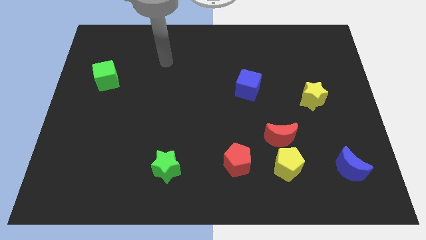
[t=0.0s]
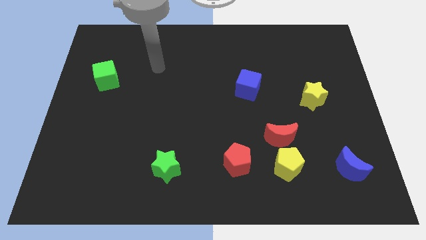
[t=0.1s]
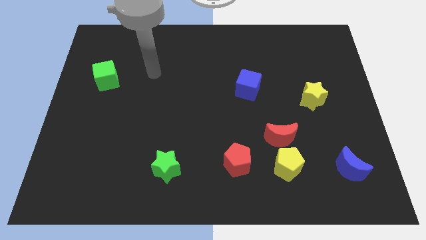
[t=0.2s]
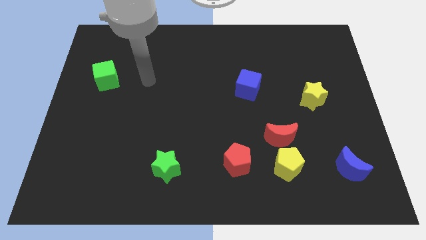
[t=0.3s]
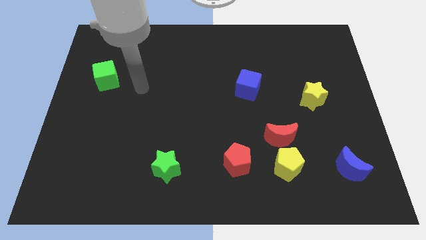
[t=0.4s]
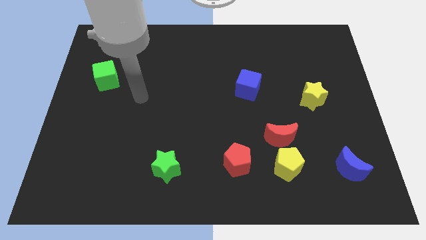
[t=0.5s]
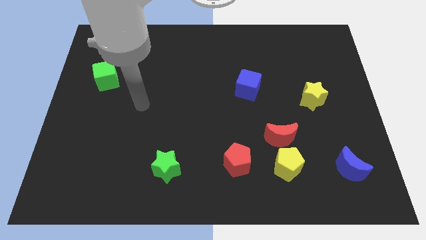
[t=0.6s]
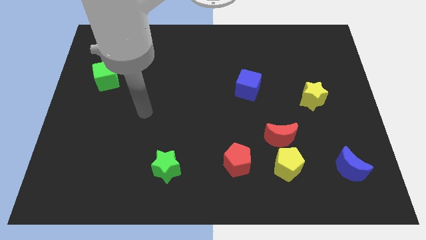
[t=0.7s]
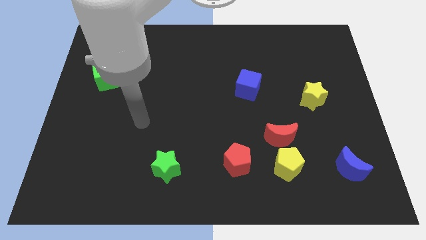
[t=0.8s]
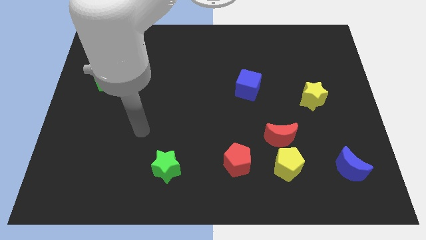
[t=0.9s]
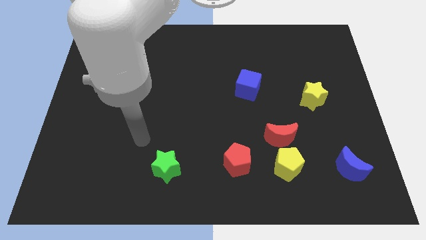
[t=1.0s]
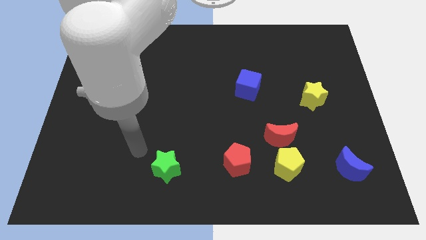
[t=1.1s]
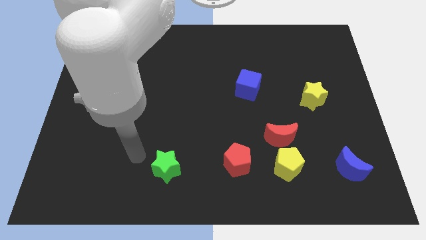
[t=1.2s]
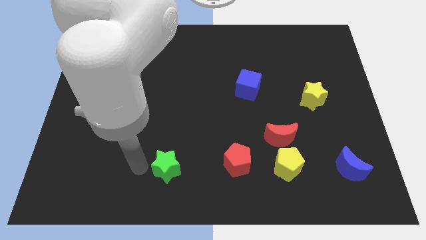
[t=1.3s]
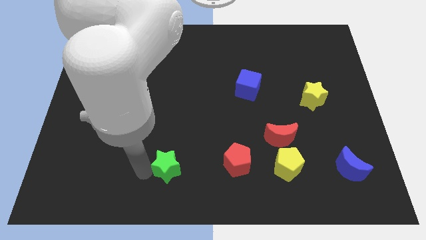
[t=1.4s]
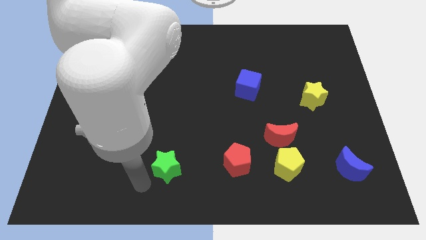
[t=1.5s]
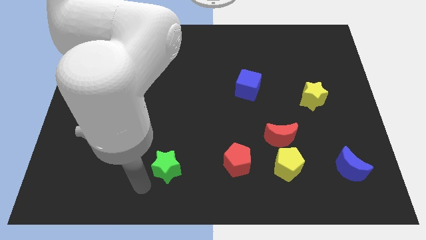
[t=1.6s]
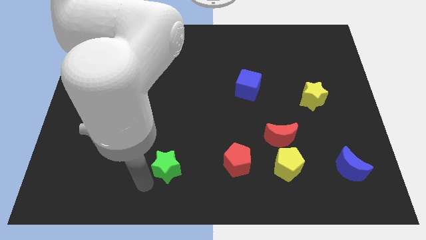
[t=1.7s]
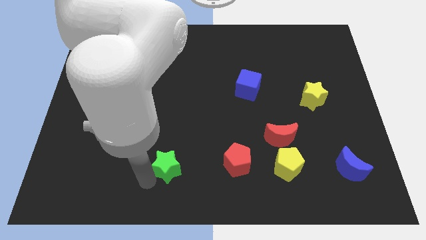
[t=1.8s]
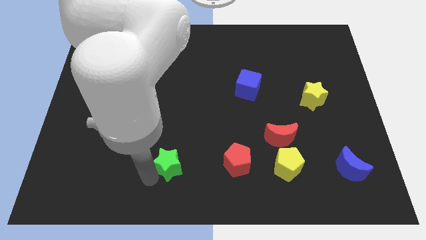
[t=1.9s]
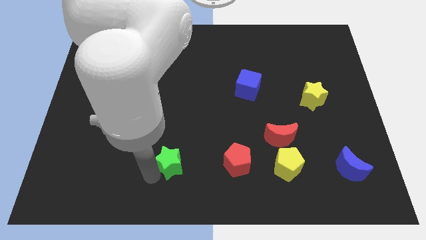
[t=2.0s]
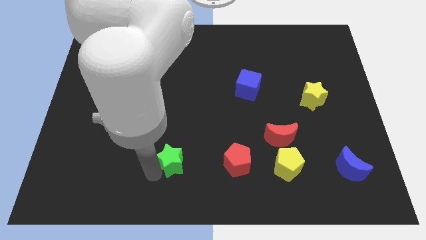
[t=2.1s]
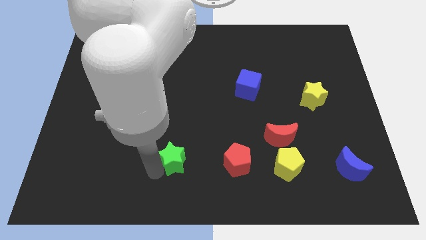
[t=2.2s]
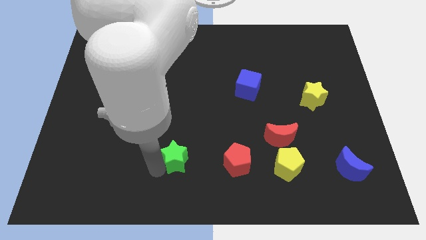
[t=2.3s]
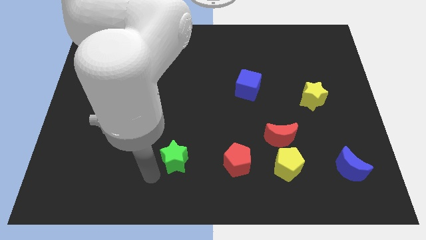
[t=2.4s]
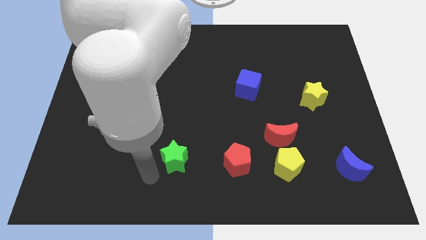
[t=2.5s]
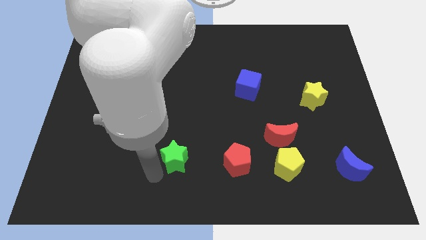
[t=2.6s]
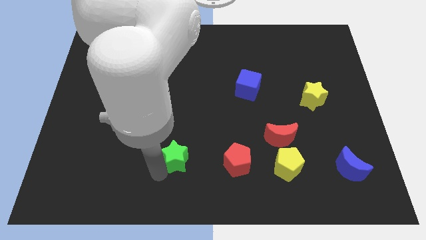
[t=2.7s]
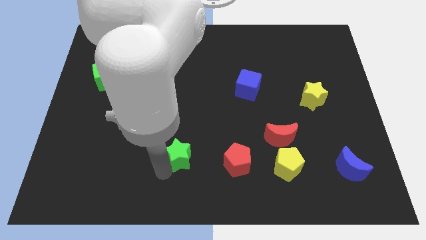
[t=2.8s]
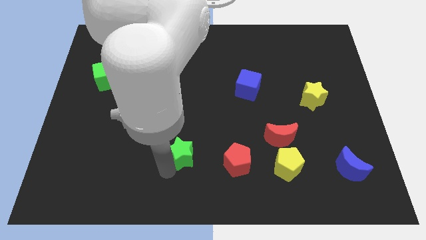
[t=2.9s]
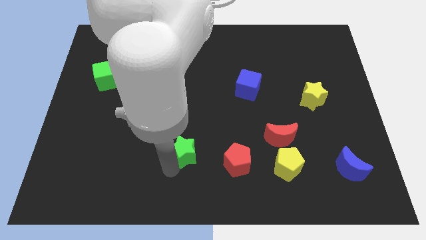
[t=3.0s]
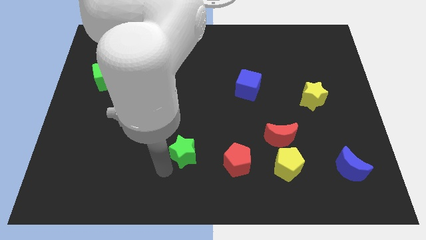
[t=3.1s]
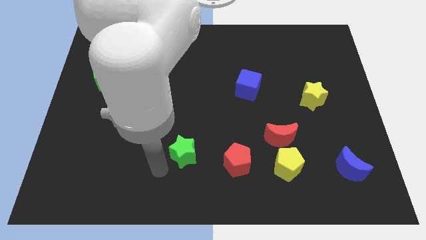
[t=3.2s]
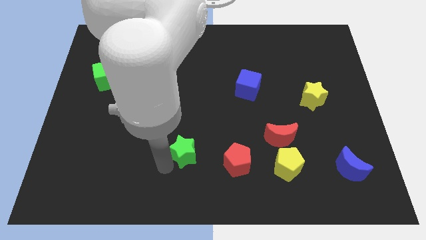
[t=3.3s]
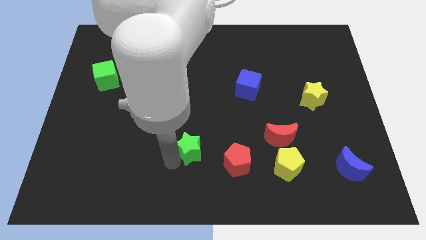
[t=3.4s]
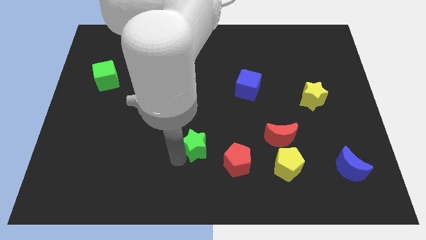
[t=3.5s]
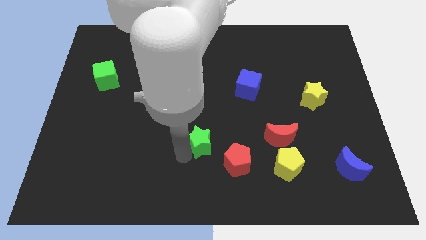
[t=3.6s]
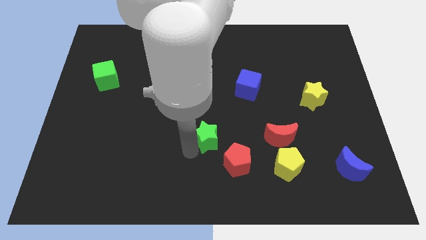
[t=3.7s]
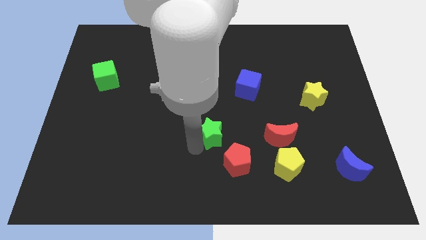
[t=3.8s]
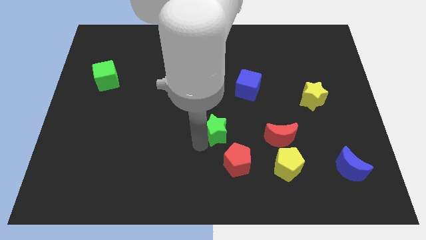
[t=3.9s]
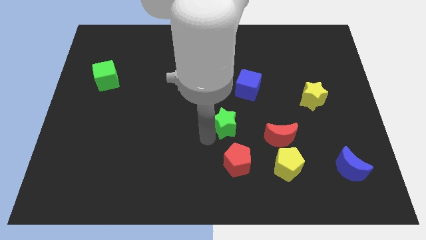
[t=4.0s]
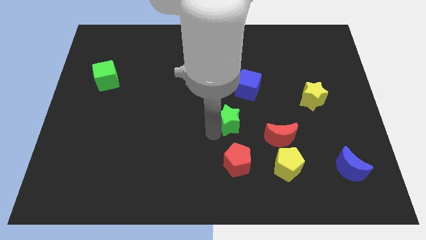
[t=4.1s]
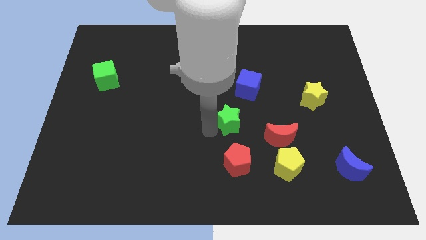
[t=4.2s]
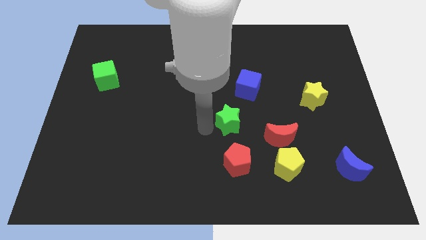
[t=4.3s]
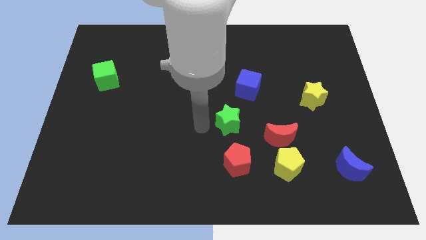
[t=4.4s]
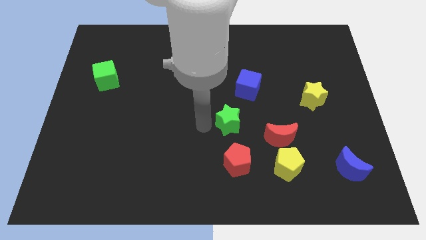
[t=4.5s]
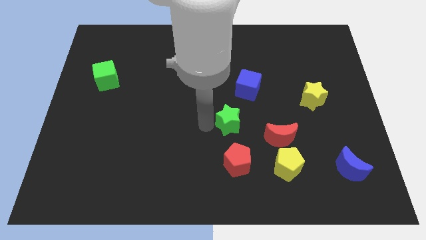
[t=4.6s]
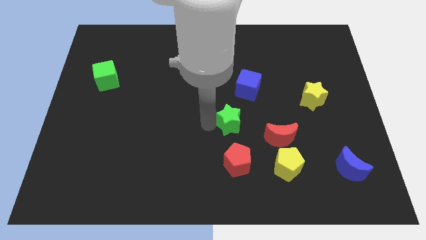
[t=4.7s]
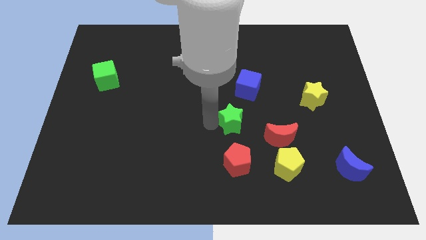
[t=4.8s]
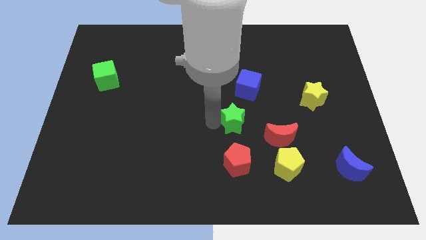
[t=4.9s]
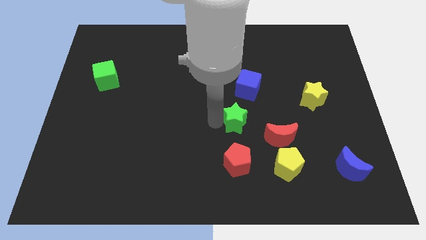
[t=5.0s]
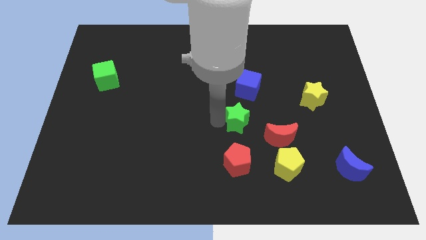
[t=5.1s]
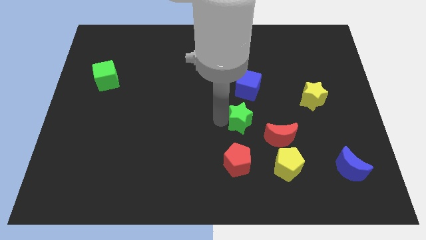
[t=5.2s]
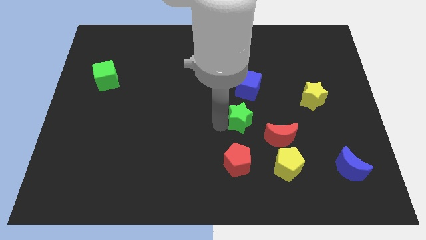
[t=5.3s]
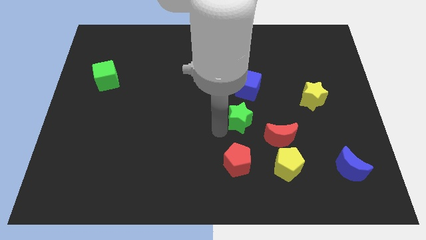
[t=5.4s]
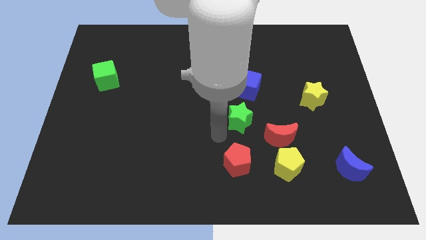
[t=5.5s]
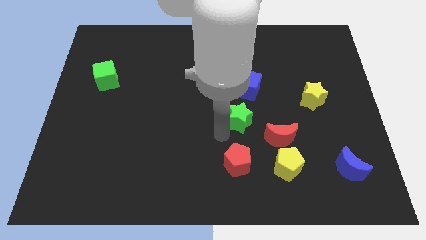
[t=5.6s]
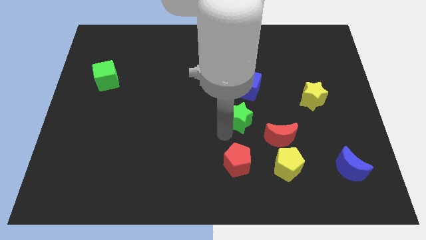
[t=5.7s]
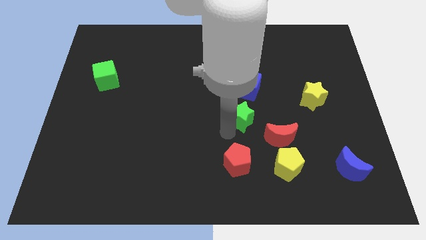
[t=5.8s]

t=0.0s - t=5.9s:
slide the green star upwards and to the right diagonally

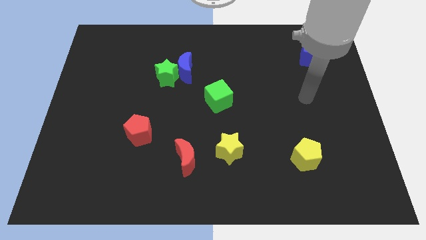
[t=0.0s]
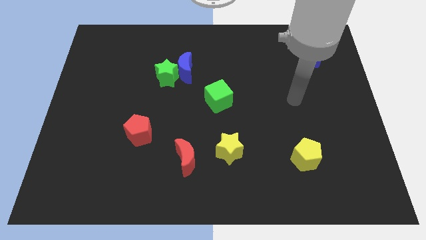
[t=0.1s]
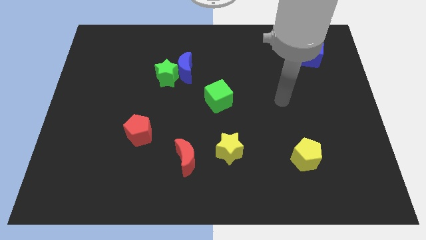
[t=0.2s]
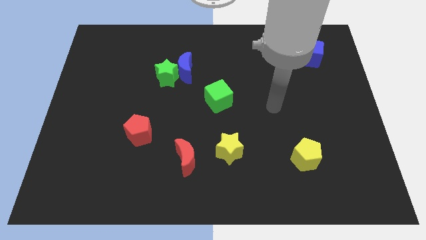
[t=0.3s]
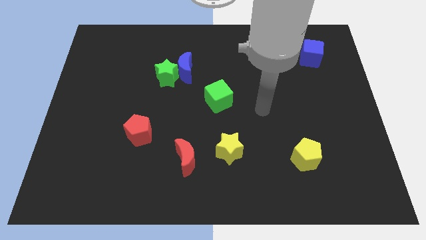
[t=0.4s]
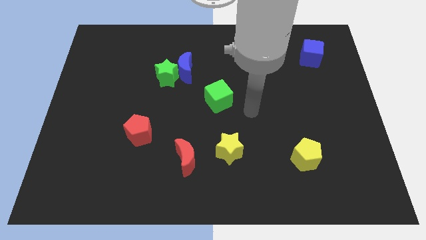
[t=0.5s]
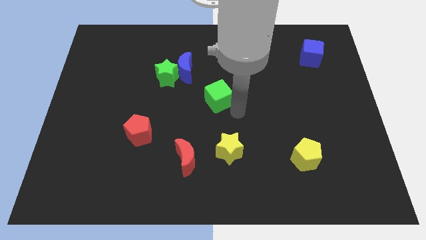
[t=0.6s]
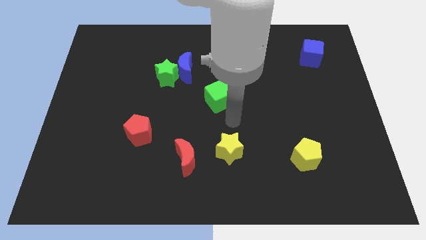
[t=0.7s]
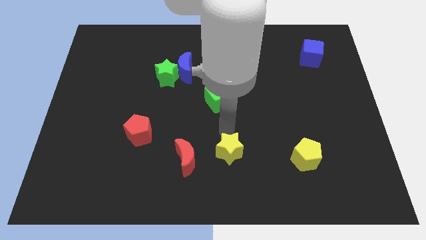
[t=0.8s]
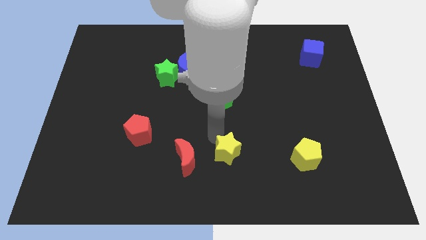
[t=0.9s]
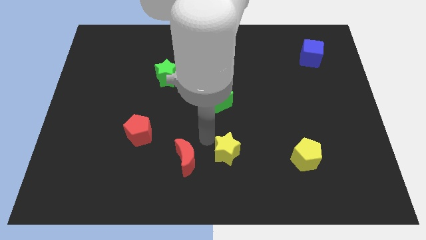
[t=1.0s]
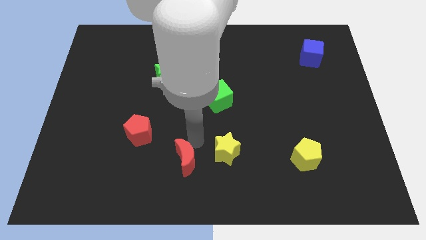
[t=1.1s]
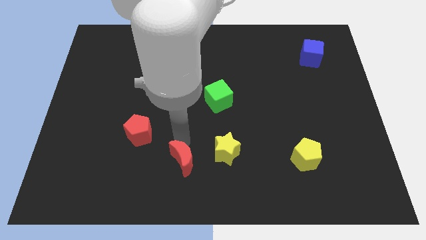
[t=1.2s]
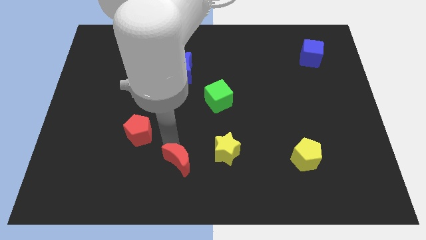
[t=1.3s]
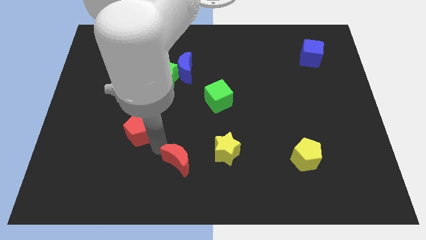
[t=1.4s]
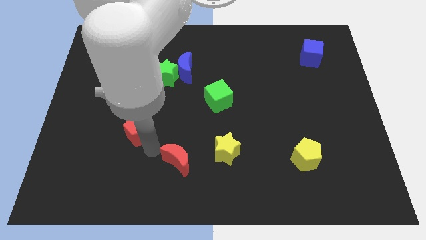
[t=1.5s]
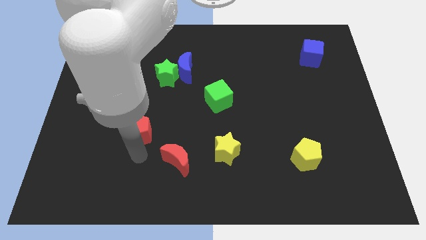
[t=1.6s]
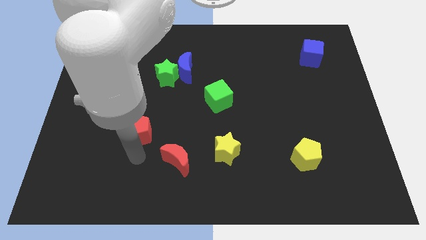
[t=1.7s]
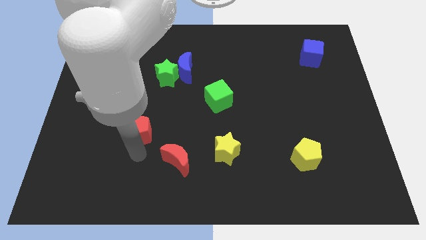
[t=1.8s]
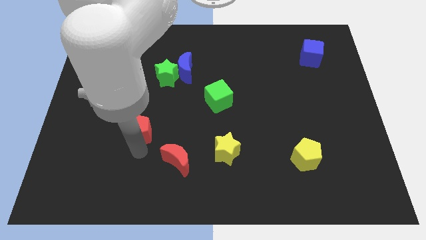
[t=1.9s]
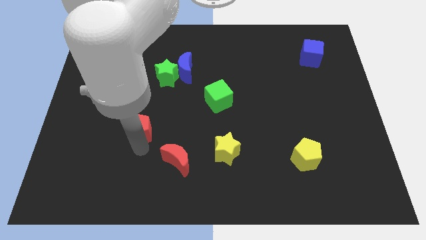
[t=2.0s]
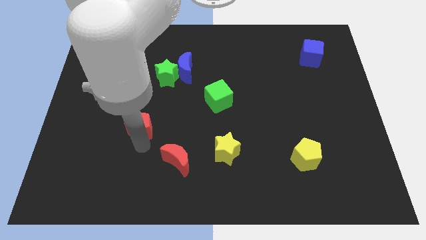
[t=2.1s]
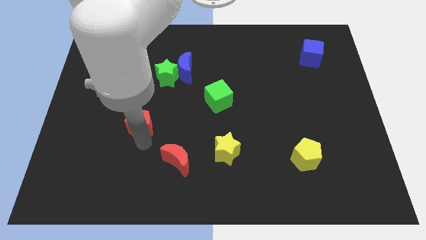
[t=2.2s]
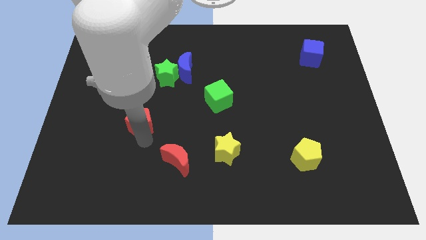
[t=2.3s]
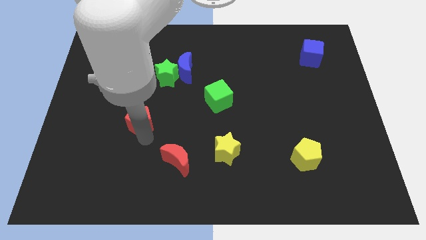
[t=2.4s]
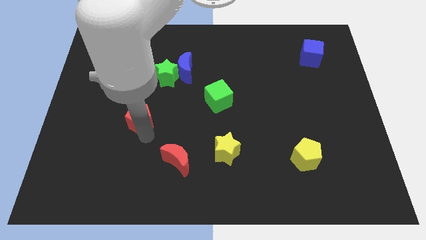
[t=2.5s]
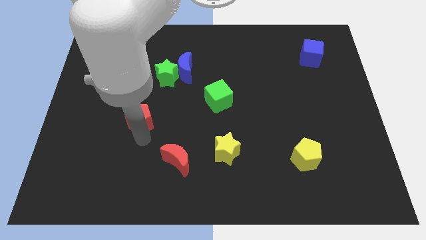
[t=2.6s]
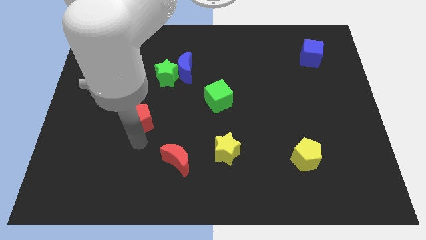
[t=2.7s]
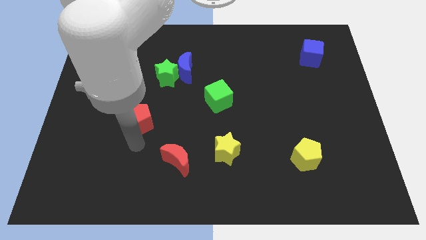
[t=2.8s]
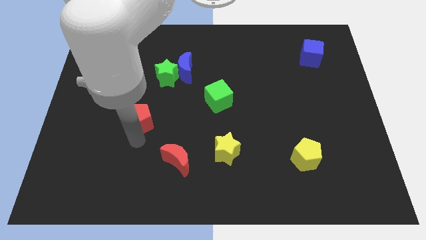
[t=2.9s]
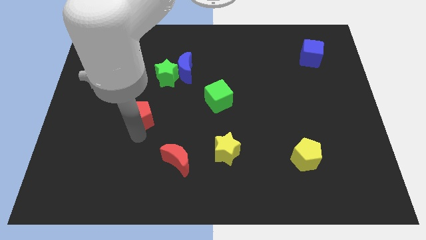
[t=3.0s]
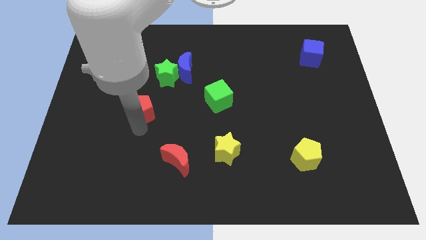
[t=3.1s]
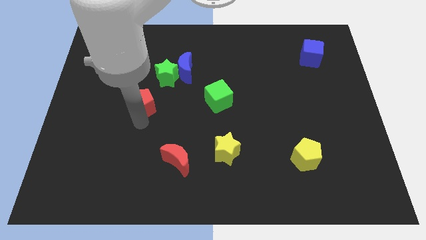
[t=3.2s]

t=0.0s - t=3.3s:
slightly push the red pentagon upwards
